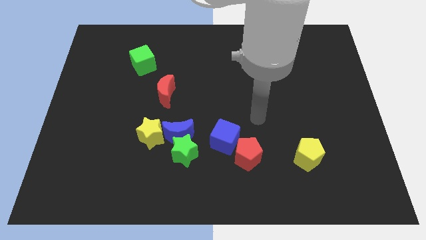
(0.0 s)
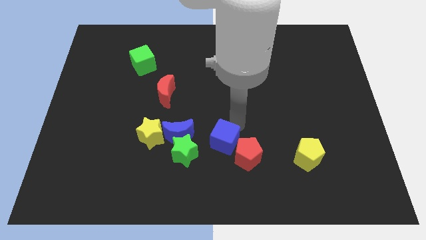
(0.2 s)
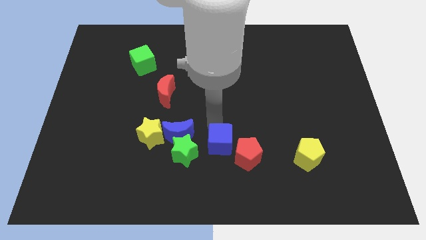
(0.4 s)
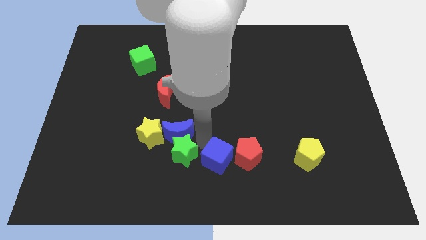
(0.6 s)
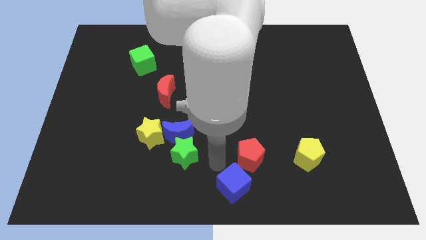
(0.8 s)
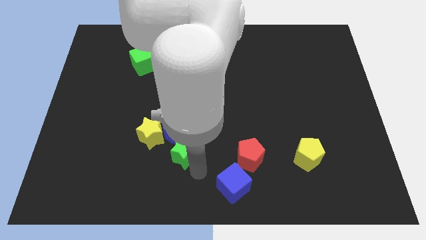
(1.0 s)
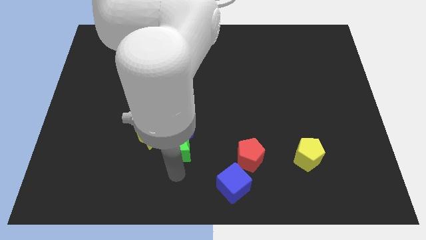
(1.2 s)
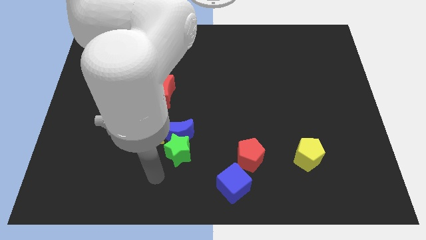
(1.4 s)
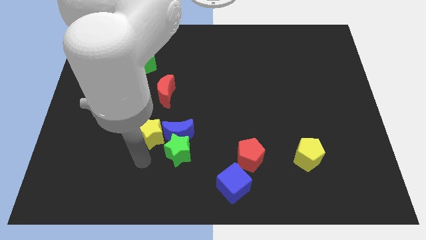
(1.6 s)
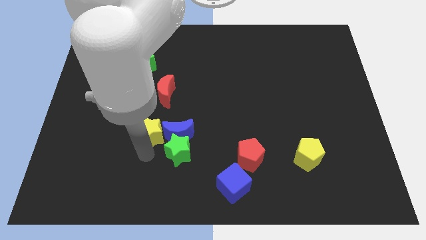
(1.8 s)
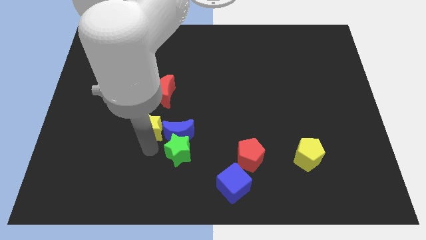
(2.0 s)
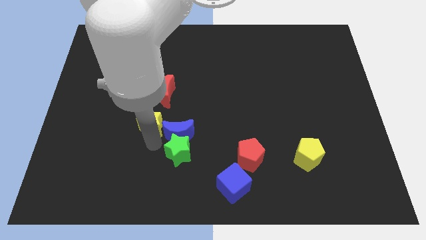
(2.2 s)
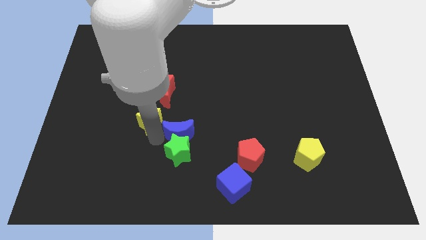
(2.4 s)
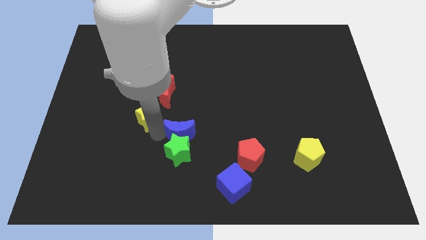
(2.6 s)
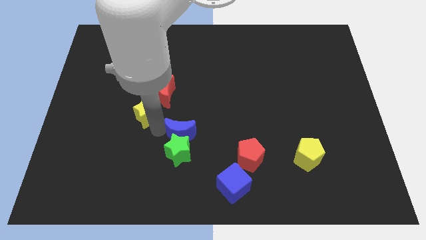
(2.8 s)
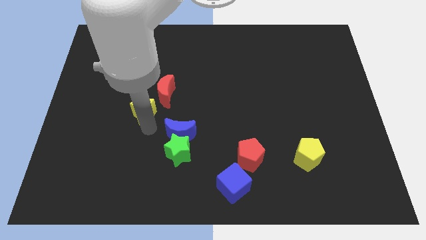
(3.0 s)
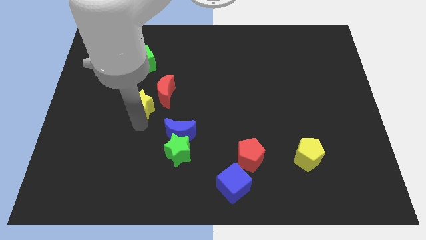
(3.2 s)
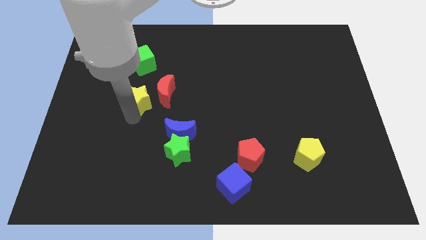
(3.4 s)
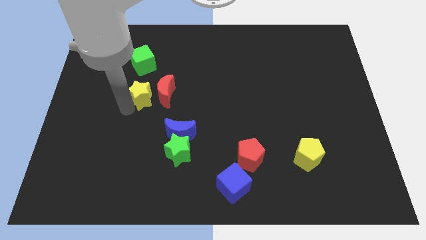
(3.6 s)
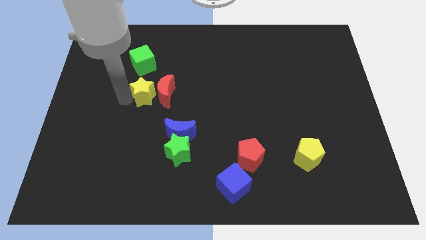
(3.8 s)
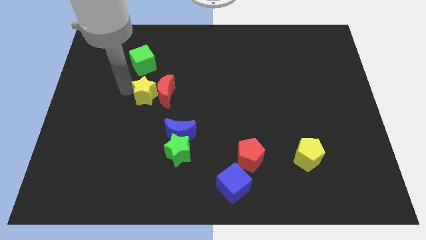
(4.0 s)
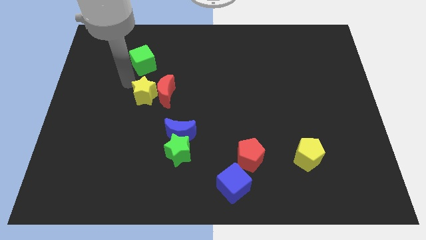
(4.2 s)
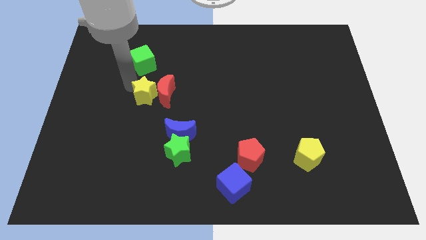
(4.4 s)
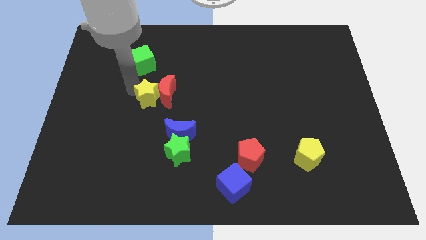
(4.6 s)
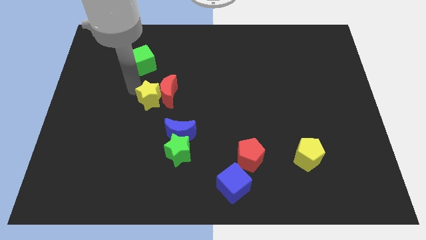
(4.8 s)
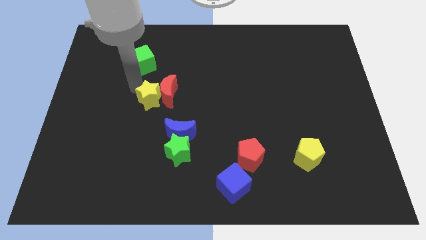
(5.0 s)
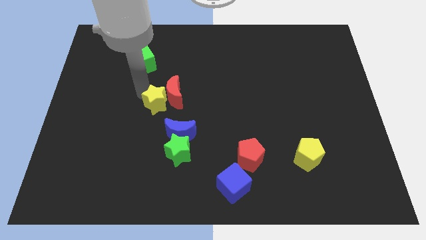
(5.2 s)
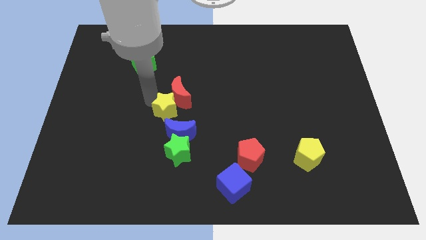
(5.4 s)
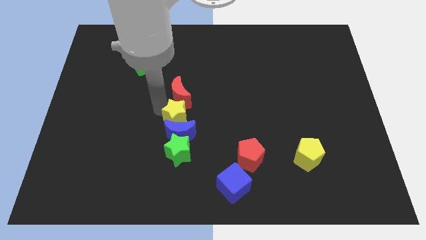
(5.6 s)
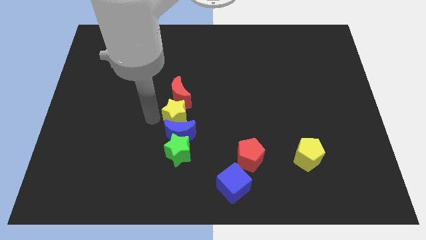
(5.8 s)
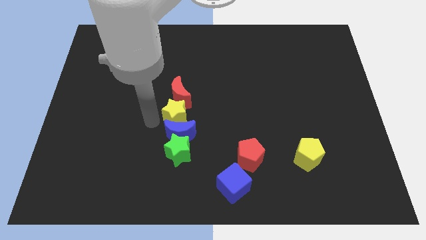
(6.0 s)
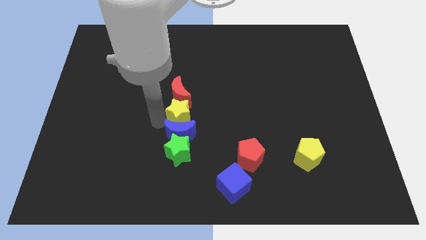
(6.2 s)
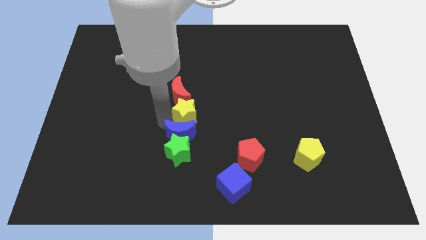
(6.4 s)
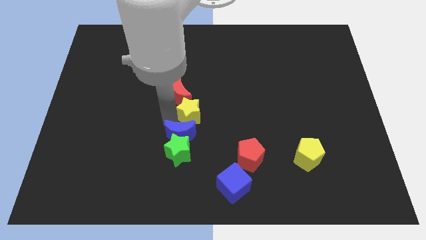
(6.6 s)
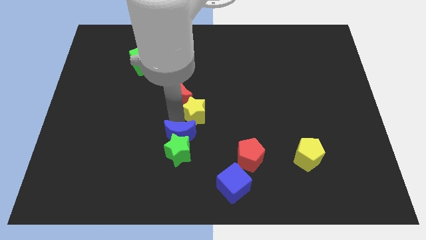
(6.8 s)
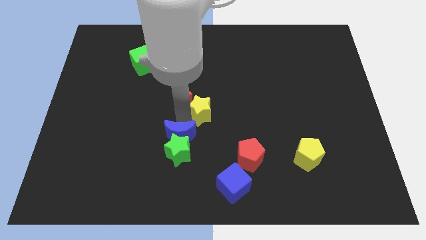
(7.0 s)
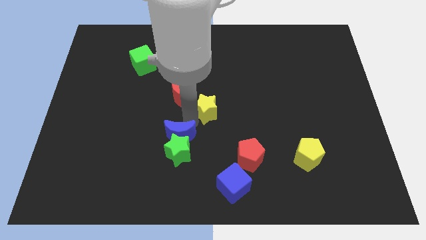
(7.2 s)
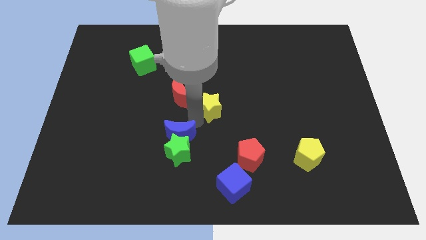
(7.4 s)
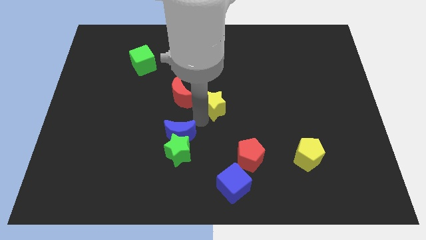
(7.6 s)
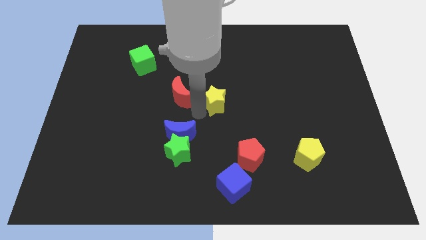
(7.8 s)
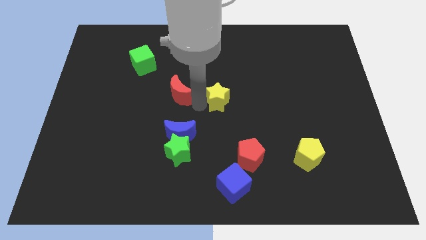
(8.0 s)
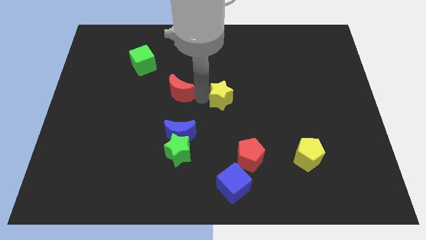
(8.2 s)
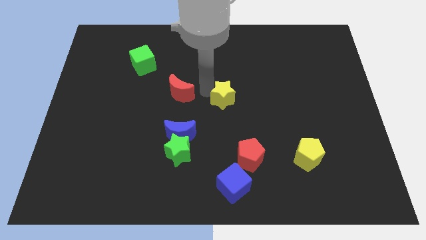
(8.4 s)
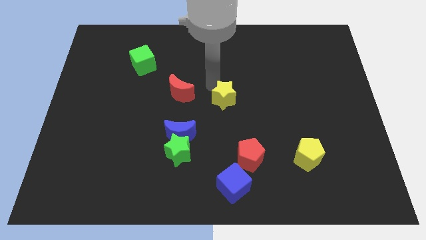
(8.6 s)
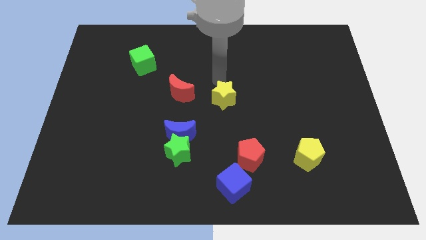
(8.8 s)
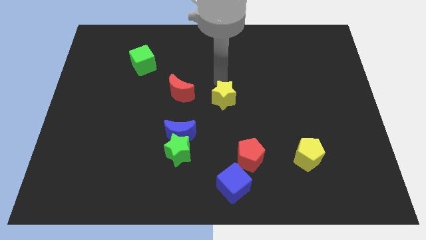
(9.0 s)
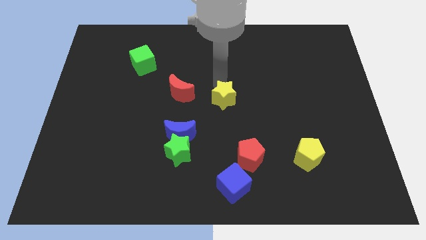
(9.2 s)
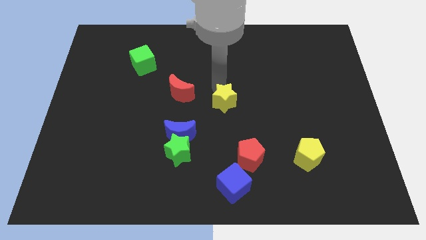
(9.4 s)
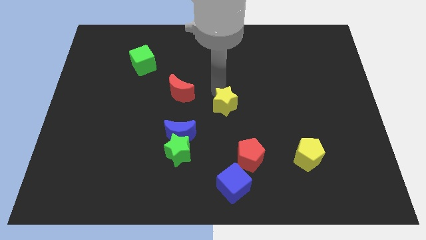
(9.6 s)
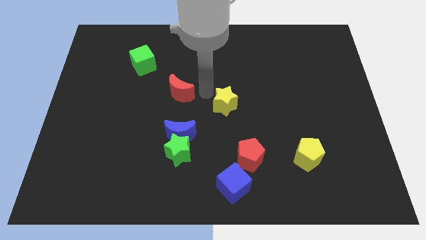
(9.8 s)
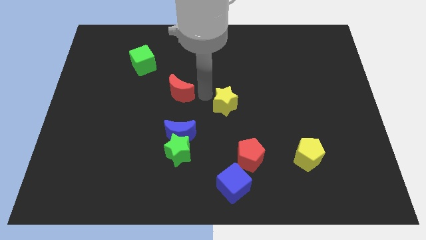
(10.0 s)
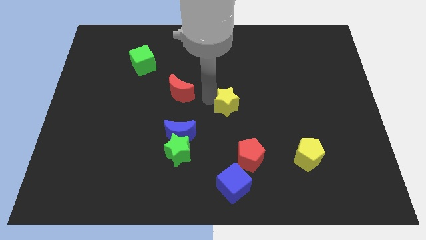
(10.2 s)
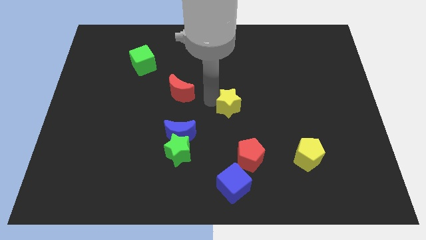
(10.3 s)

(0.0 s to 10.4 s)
put the yellow star to the top side of the red pentagon

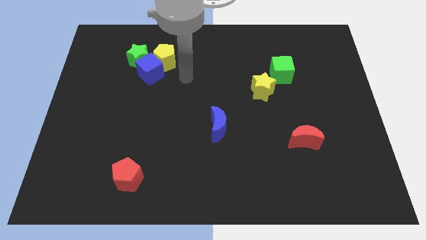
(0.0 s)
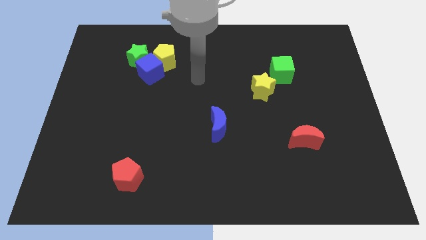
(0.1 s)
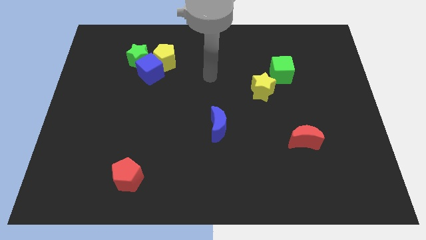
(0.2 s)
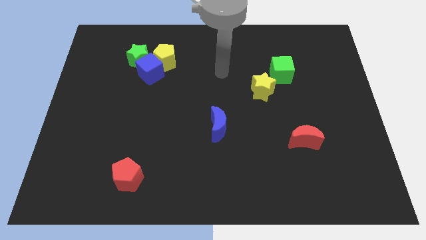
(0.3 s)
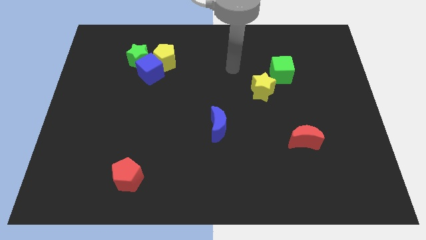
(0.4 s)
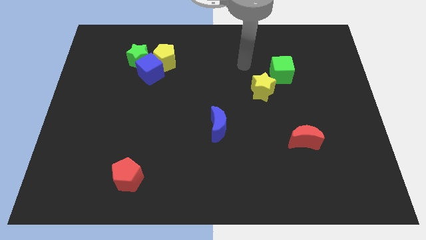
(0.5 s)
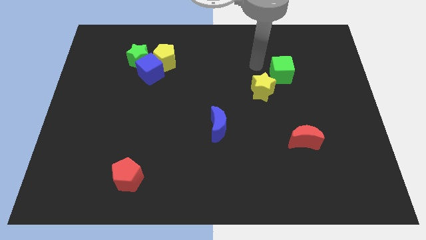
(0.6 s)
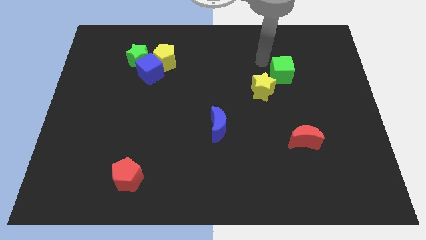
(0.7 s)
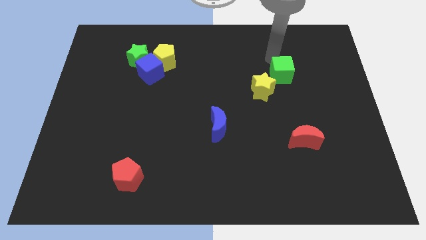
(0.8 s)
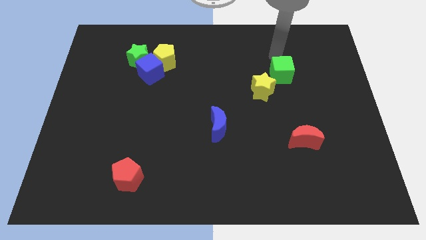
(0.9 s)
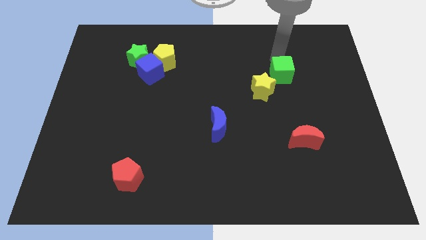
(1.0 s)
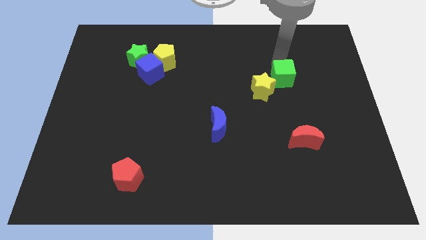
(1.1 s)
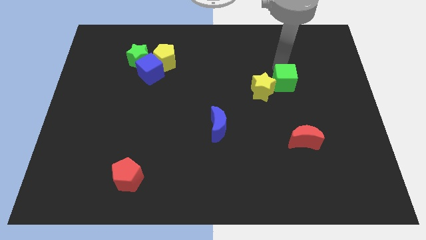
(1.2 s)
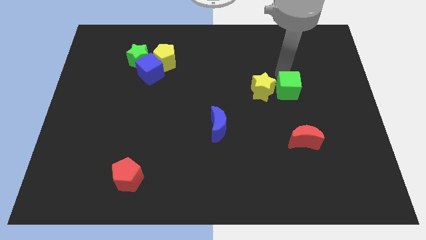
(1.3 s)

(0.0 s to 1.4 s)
move the green cube diagonally down and to the right of the yellow star
